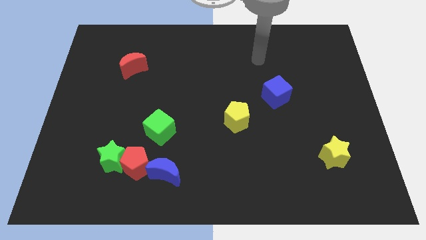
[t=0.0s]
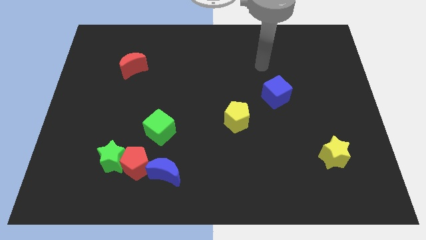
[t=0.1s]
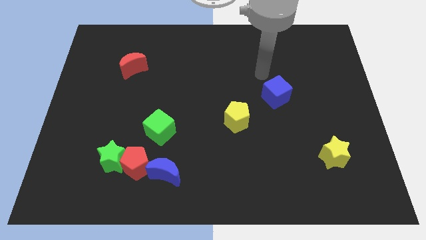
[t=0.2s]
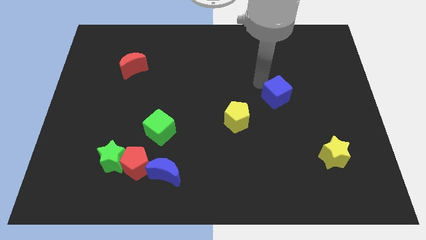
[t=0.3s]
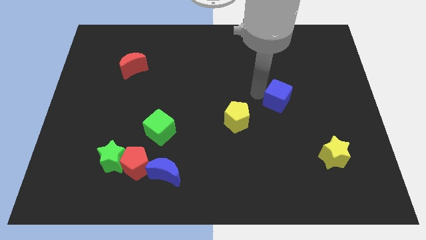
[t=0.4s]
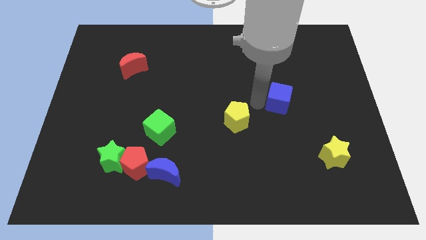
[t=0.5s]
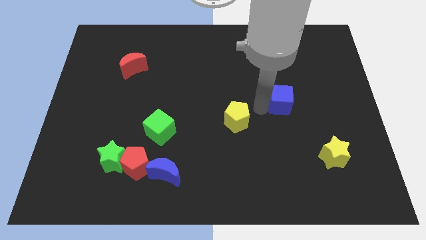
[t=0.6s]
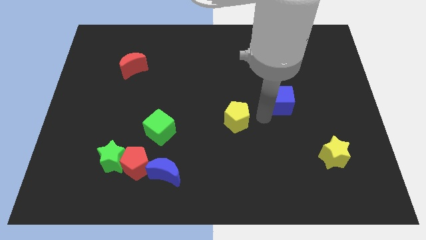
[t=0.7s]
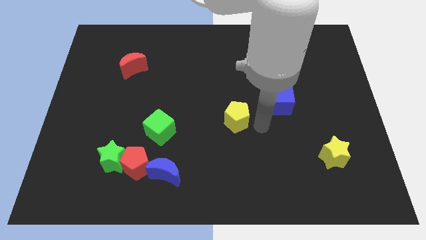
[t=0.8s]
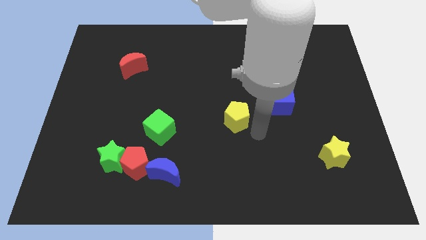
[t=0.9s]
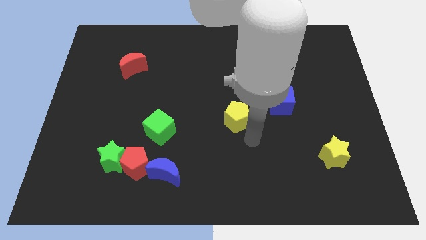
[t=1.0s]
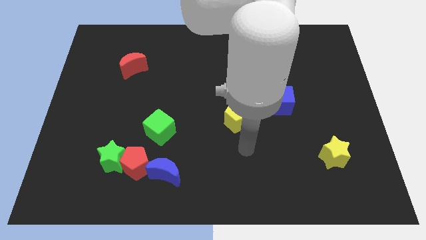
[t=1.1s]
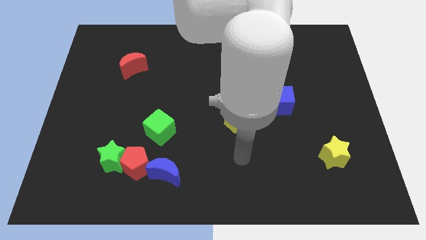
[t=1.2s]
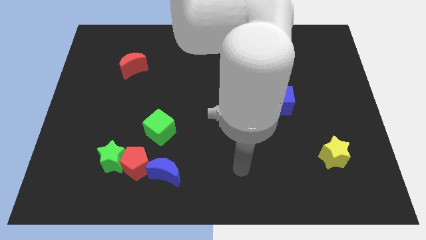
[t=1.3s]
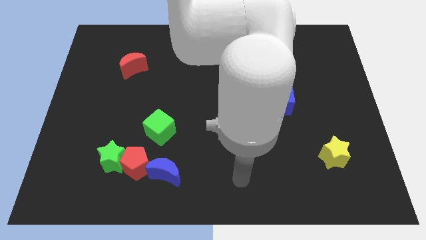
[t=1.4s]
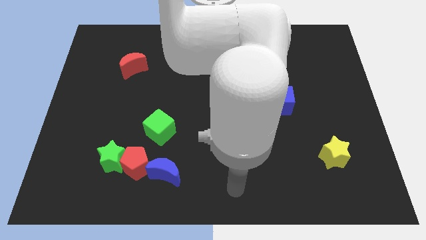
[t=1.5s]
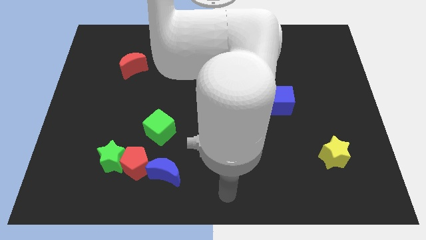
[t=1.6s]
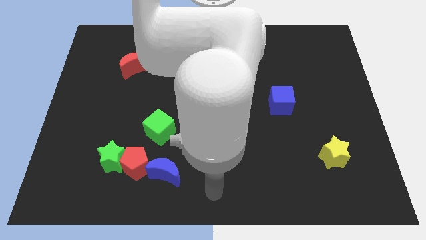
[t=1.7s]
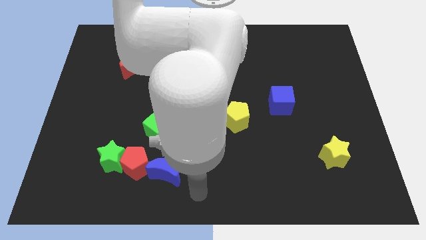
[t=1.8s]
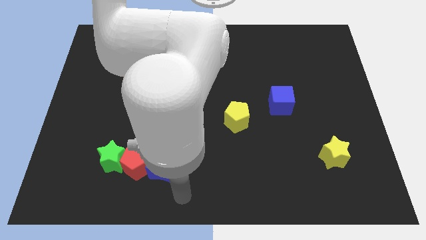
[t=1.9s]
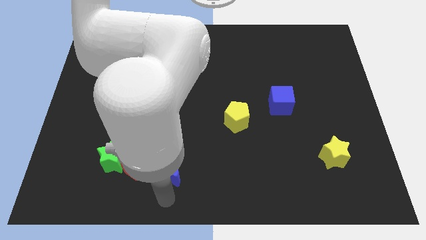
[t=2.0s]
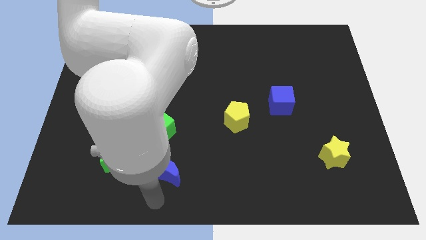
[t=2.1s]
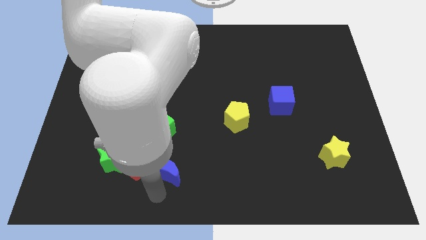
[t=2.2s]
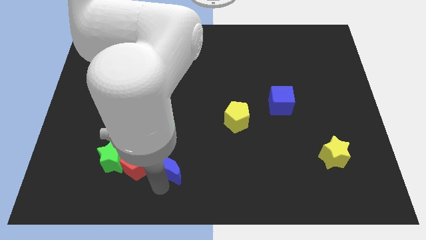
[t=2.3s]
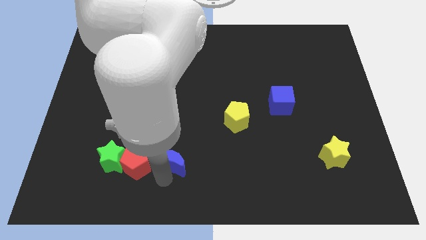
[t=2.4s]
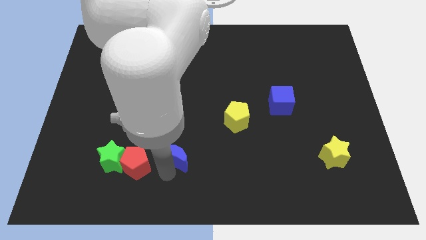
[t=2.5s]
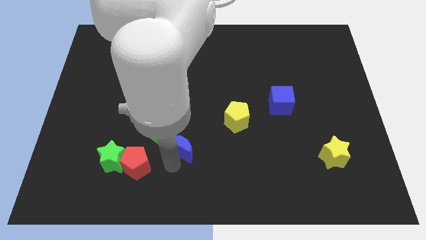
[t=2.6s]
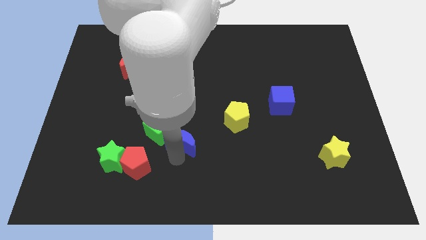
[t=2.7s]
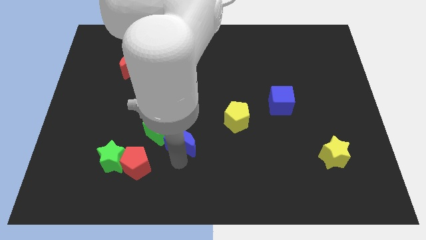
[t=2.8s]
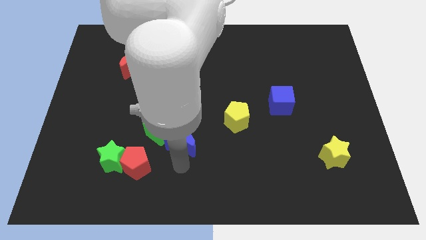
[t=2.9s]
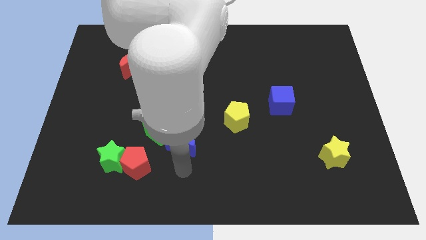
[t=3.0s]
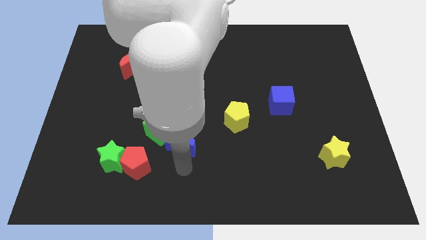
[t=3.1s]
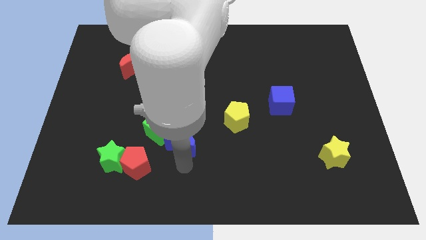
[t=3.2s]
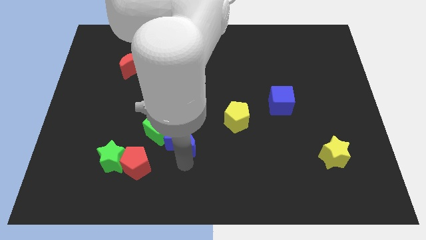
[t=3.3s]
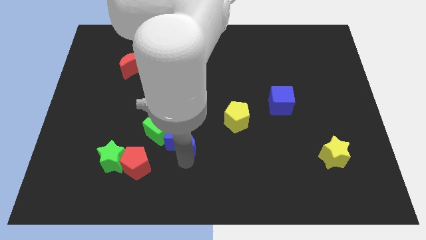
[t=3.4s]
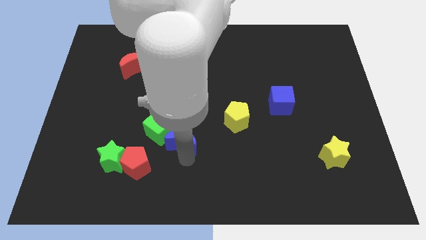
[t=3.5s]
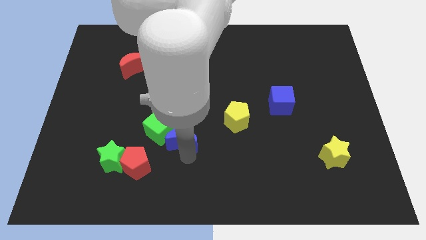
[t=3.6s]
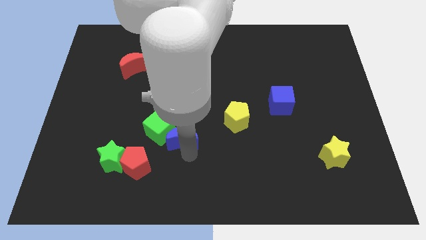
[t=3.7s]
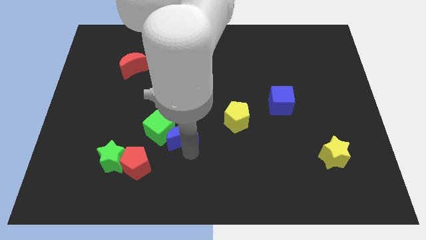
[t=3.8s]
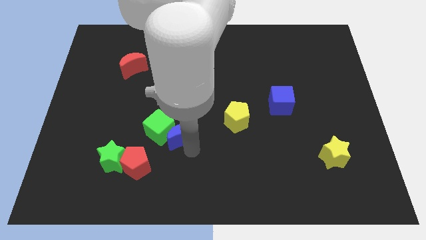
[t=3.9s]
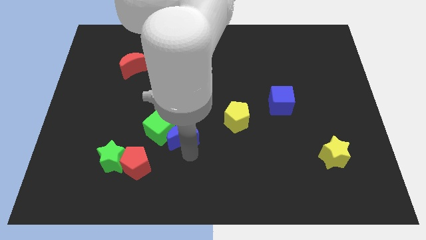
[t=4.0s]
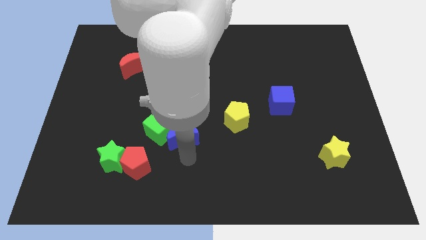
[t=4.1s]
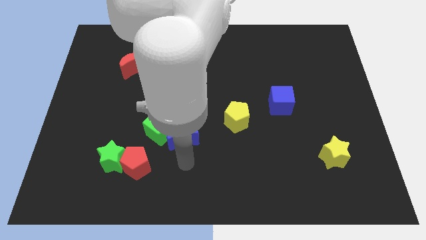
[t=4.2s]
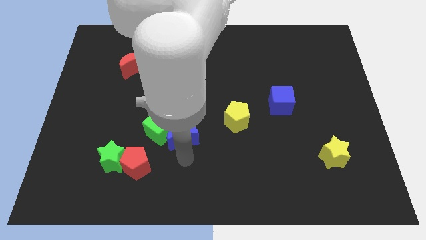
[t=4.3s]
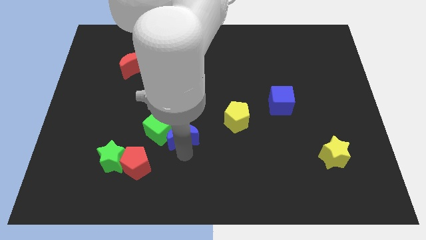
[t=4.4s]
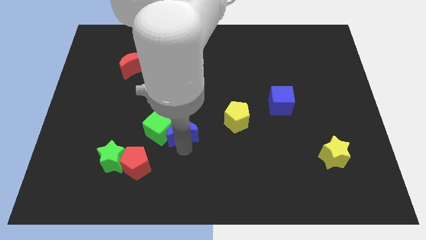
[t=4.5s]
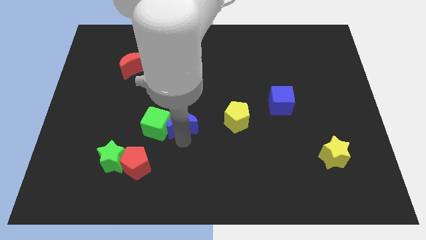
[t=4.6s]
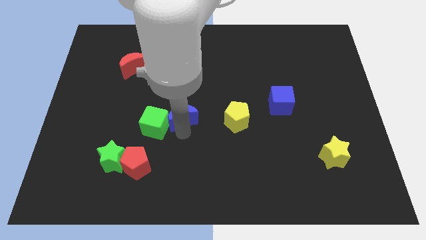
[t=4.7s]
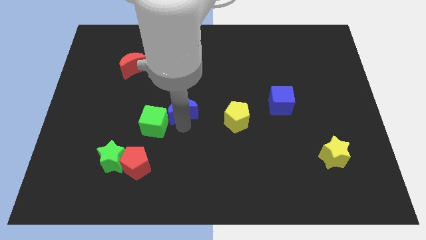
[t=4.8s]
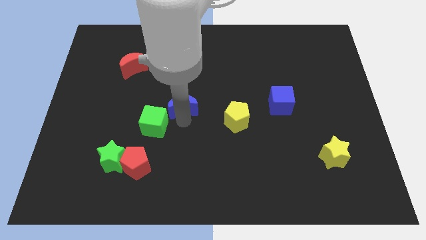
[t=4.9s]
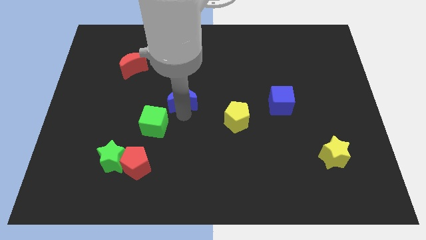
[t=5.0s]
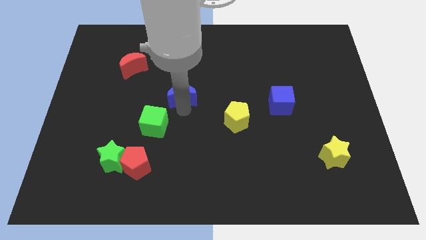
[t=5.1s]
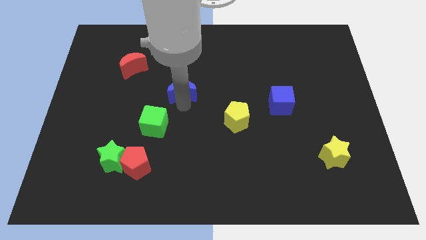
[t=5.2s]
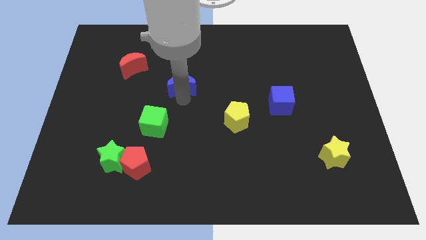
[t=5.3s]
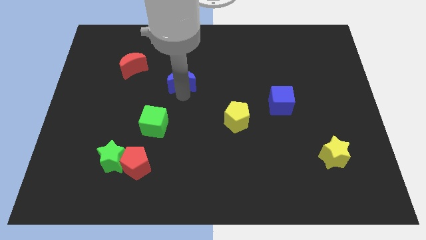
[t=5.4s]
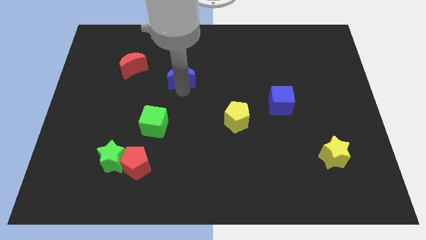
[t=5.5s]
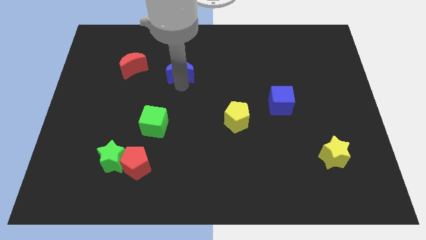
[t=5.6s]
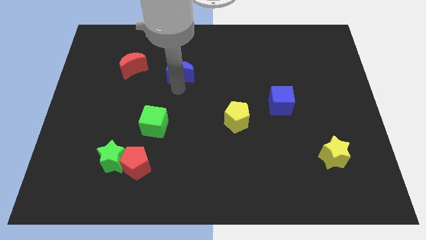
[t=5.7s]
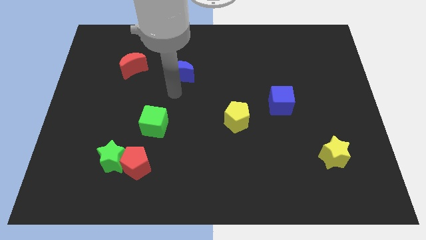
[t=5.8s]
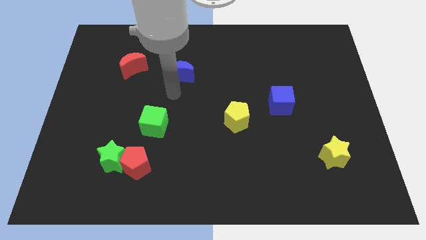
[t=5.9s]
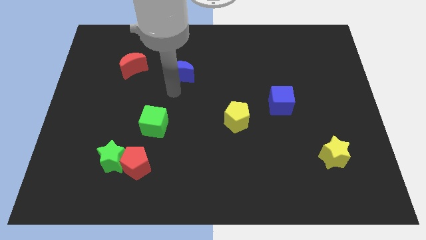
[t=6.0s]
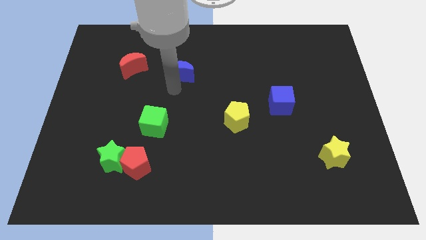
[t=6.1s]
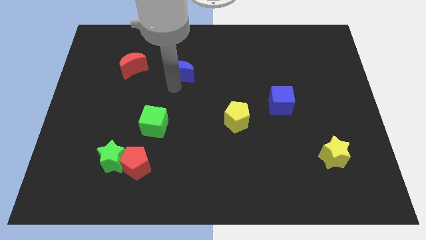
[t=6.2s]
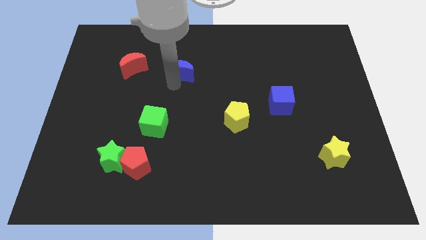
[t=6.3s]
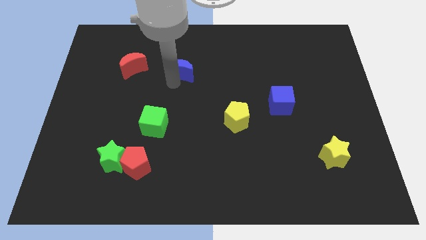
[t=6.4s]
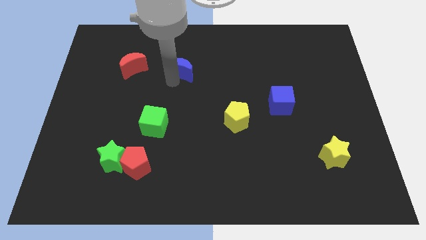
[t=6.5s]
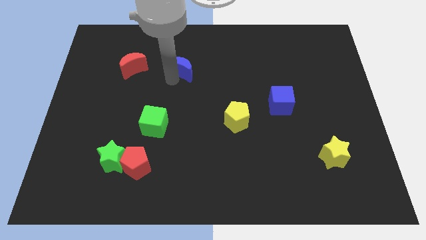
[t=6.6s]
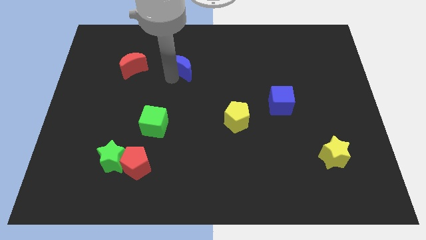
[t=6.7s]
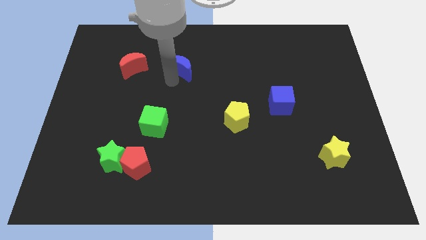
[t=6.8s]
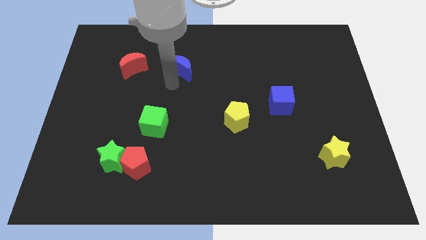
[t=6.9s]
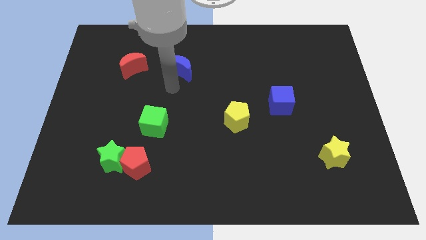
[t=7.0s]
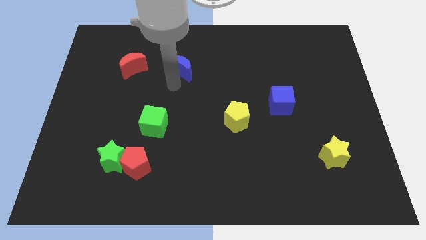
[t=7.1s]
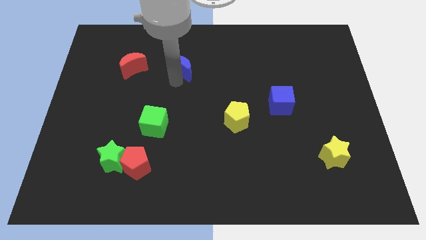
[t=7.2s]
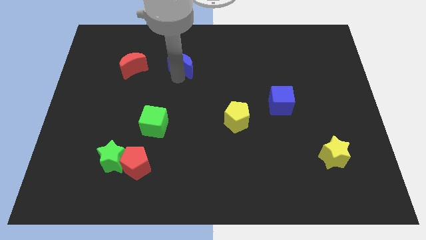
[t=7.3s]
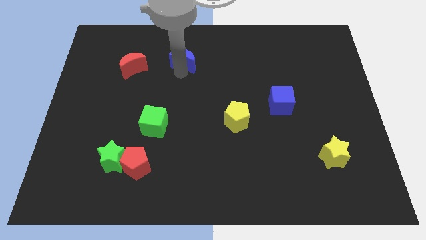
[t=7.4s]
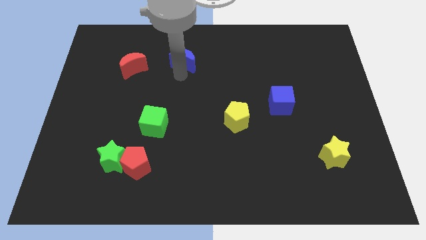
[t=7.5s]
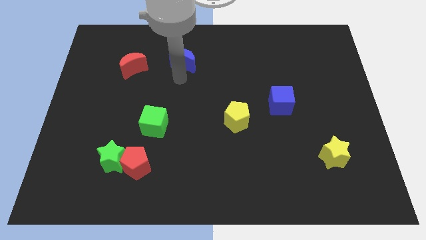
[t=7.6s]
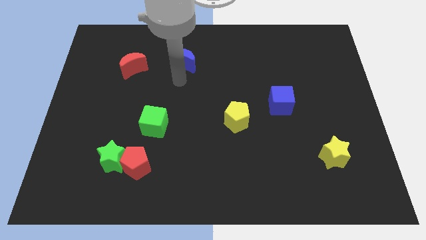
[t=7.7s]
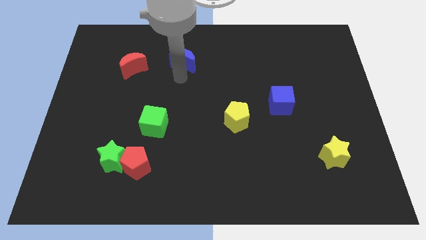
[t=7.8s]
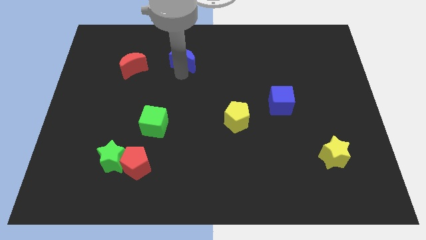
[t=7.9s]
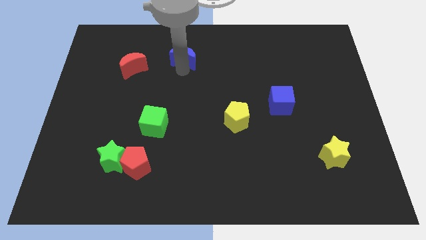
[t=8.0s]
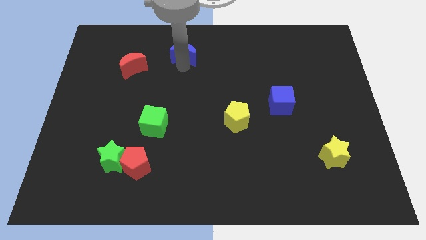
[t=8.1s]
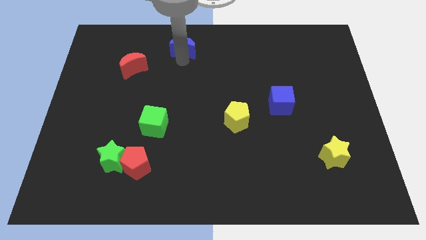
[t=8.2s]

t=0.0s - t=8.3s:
slide the blue moon to the top side
